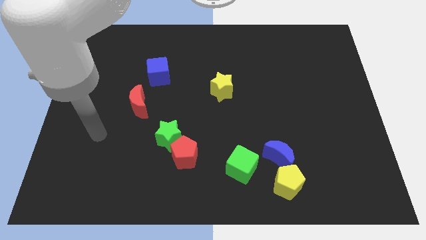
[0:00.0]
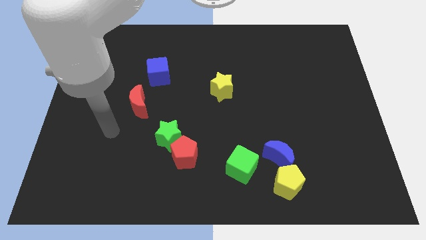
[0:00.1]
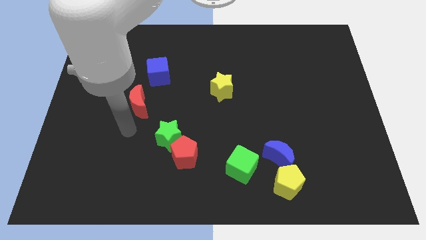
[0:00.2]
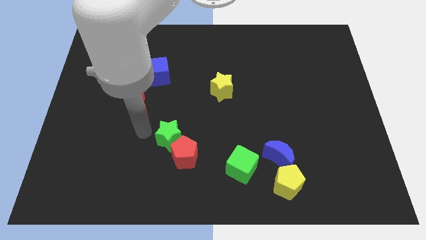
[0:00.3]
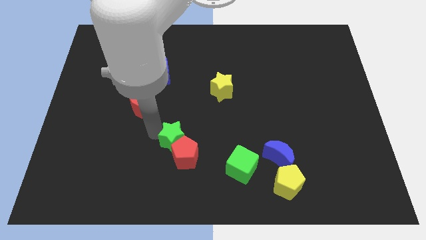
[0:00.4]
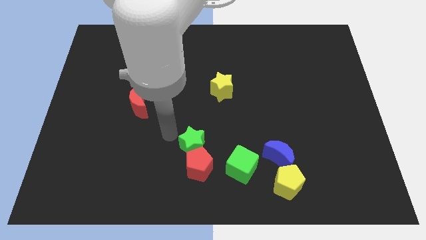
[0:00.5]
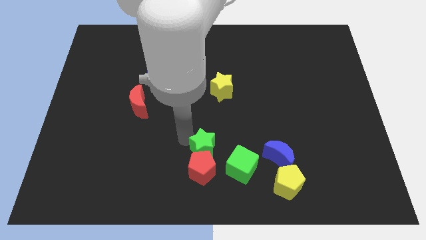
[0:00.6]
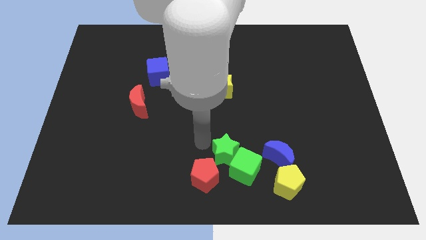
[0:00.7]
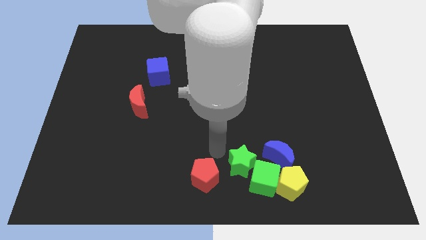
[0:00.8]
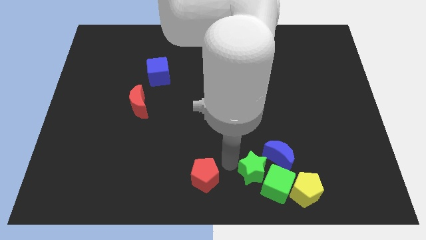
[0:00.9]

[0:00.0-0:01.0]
move the red pentagon away from the green star

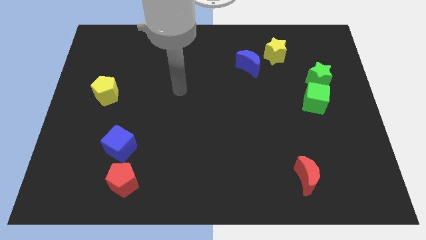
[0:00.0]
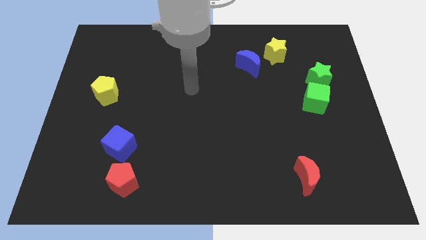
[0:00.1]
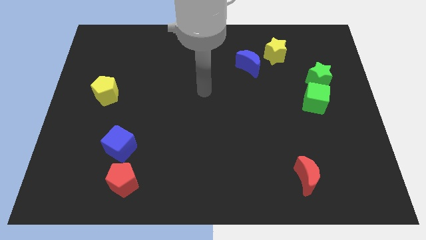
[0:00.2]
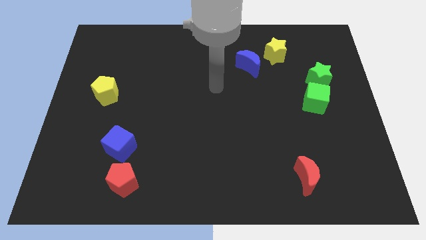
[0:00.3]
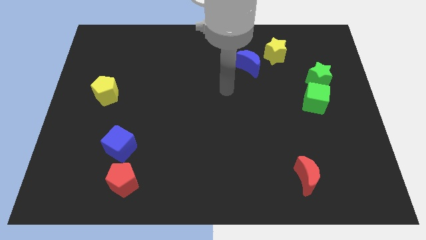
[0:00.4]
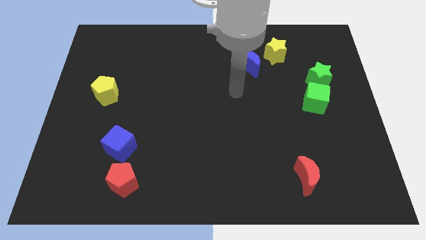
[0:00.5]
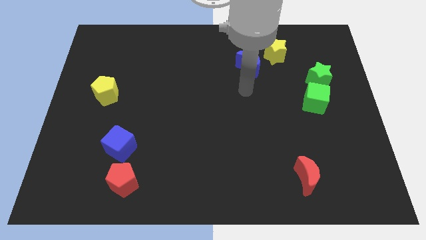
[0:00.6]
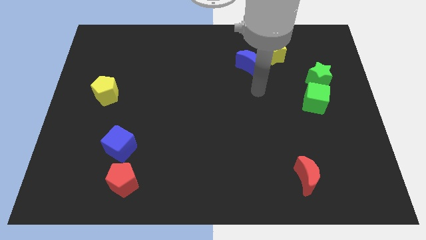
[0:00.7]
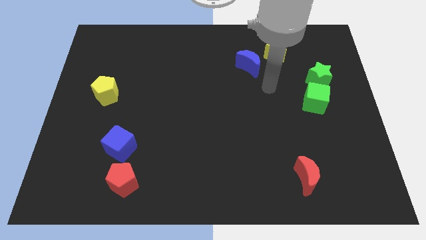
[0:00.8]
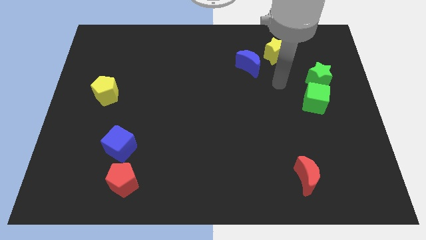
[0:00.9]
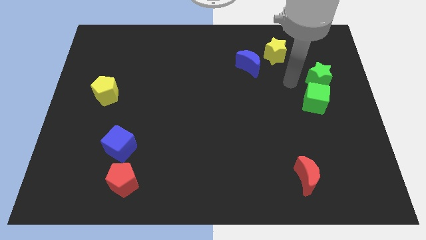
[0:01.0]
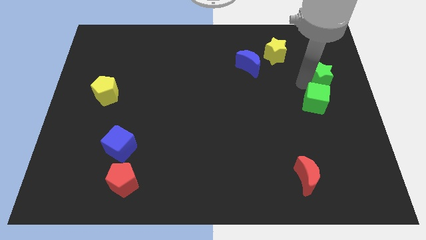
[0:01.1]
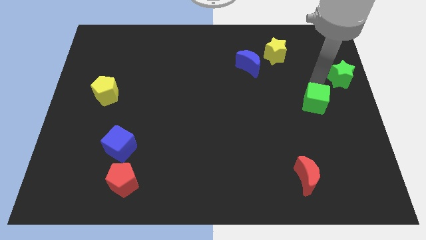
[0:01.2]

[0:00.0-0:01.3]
pull the green cube apart from the green star

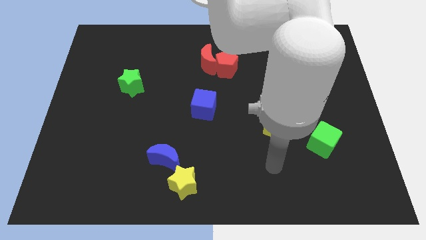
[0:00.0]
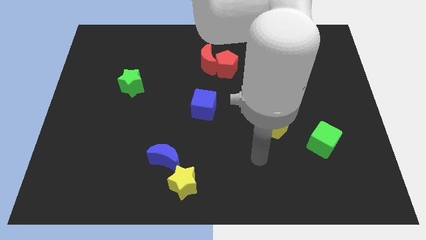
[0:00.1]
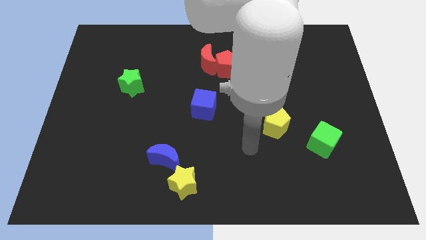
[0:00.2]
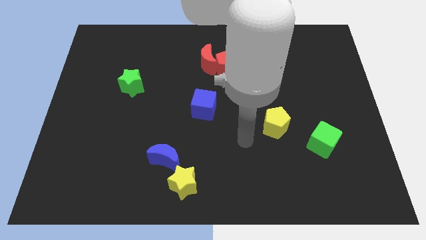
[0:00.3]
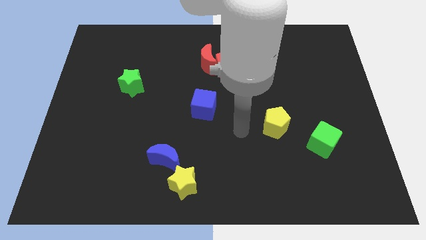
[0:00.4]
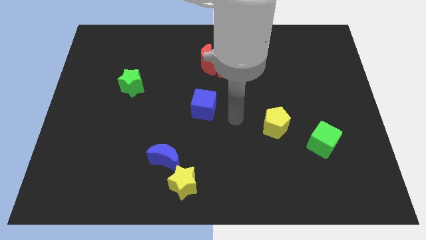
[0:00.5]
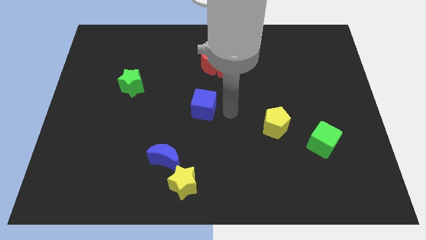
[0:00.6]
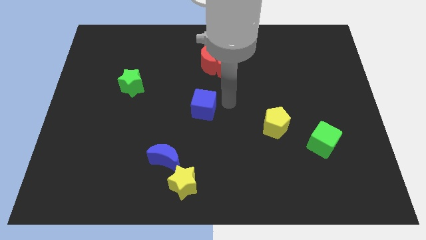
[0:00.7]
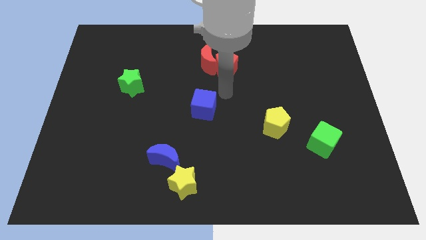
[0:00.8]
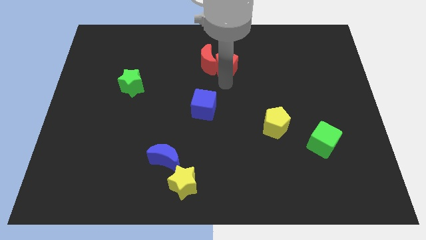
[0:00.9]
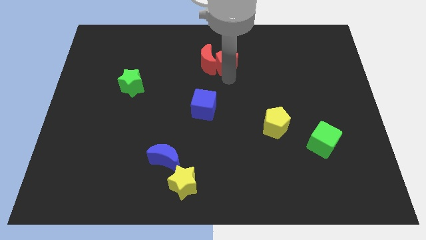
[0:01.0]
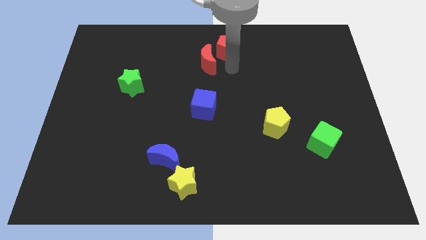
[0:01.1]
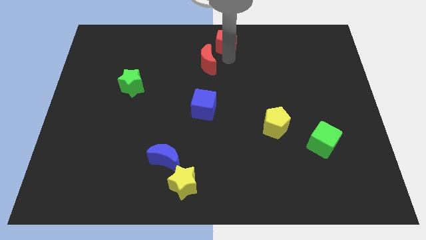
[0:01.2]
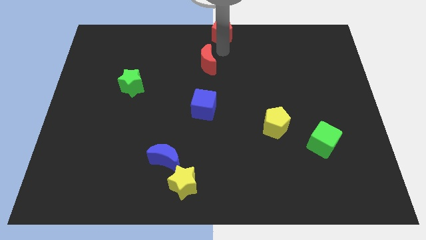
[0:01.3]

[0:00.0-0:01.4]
separate the red moon from the red pentagon

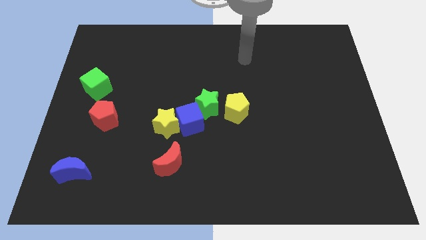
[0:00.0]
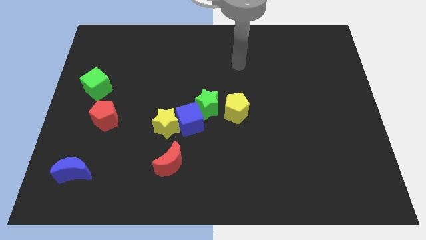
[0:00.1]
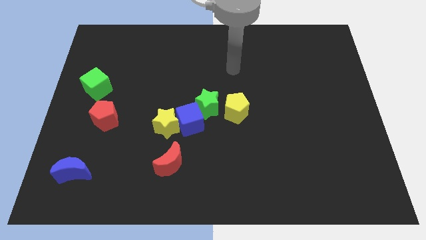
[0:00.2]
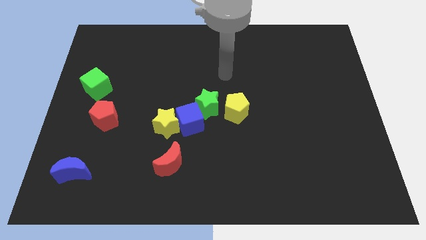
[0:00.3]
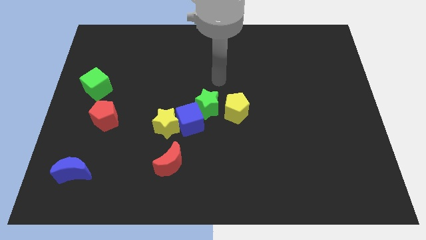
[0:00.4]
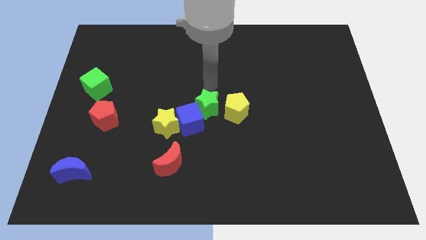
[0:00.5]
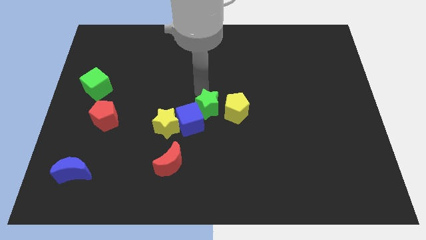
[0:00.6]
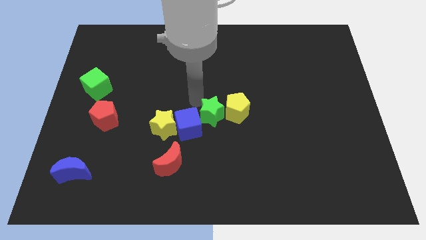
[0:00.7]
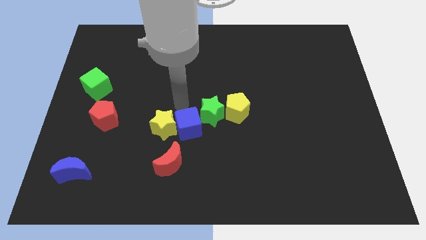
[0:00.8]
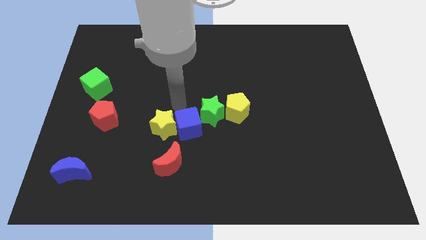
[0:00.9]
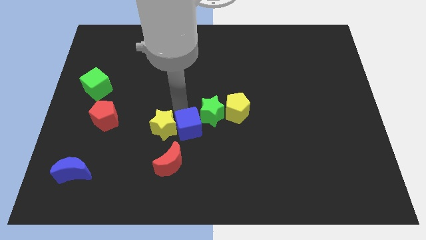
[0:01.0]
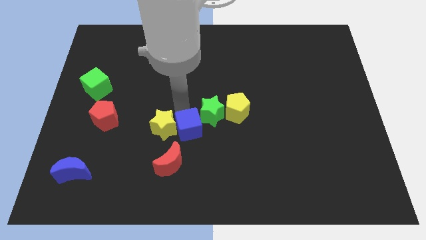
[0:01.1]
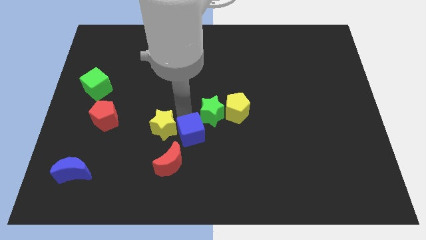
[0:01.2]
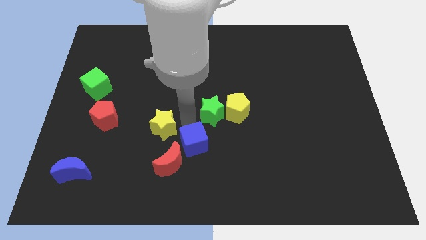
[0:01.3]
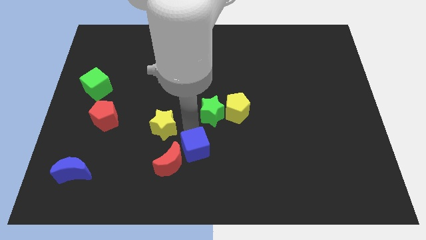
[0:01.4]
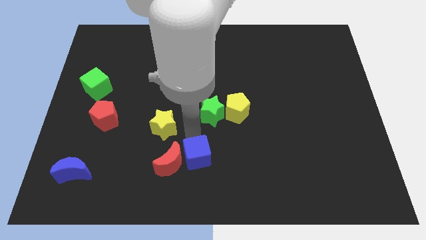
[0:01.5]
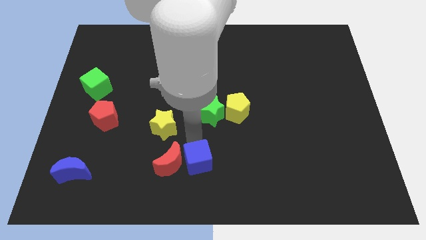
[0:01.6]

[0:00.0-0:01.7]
pull the blue cube apart from the yellow star and green star

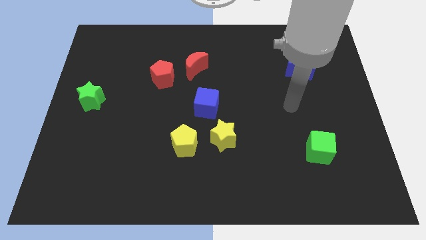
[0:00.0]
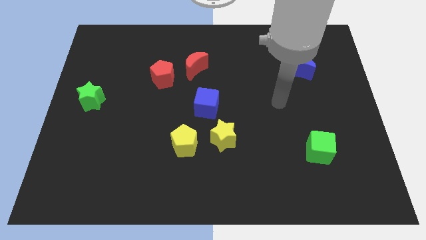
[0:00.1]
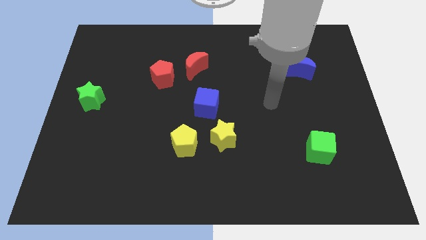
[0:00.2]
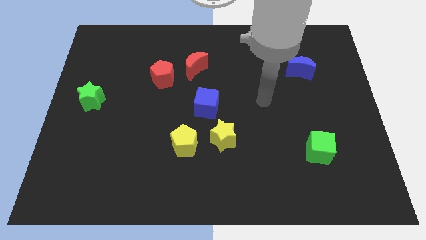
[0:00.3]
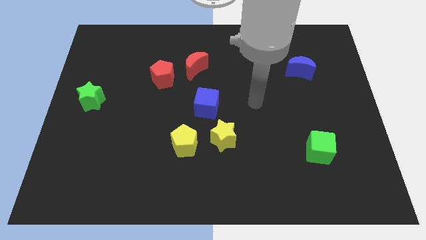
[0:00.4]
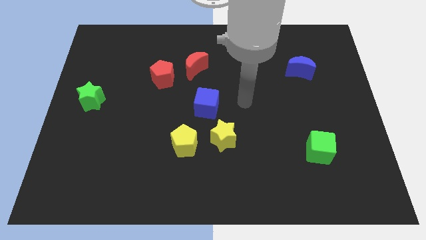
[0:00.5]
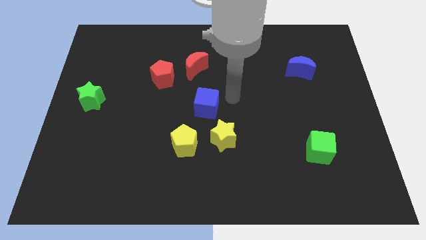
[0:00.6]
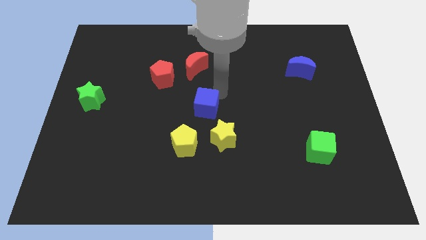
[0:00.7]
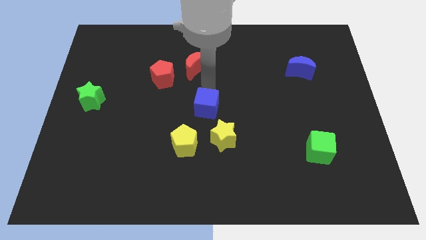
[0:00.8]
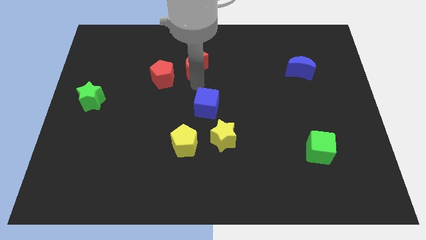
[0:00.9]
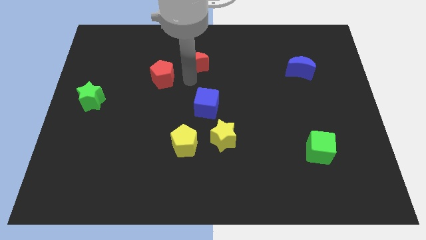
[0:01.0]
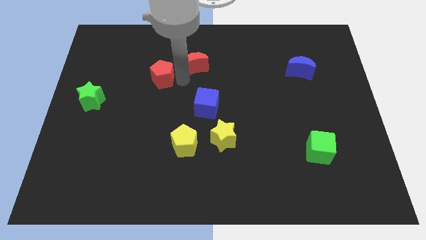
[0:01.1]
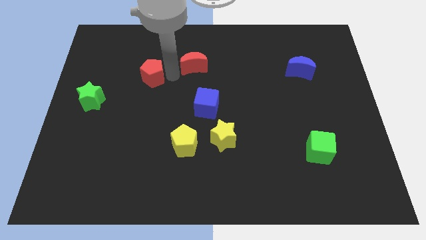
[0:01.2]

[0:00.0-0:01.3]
pull the red moon apart from the red pentagon

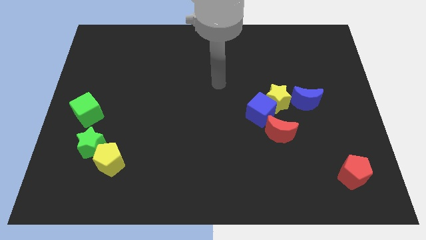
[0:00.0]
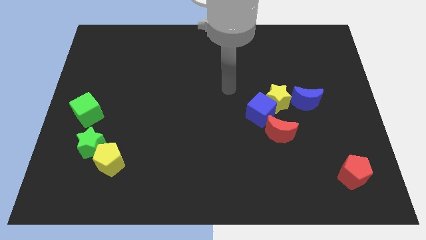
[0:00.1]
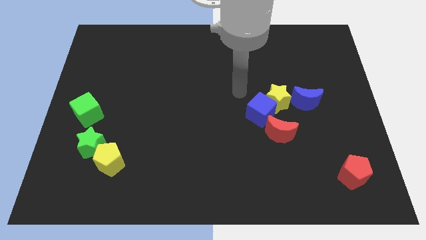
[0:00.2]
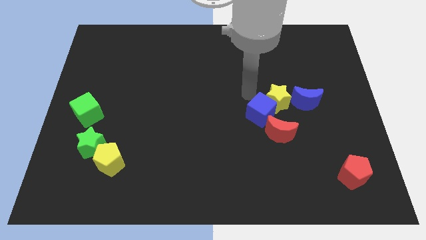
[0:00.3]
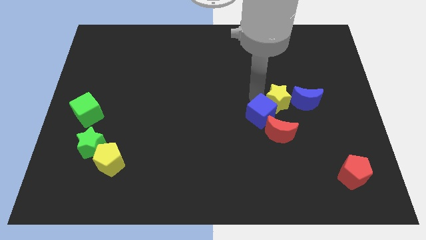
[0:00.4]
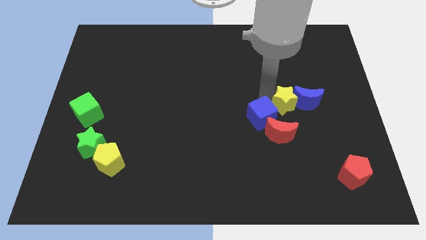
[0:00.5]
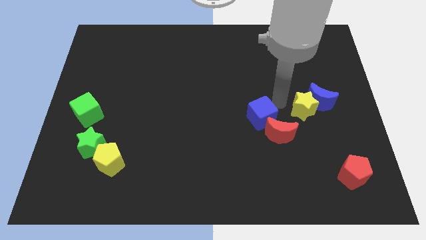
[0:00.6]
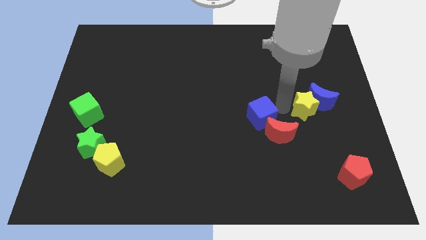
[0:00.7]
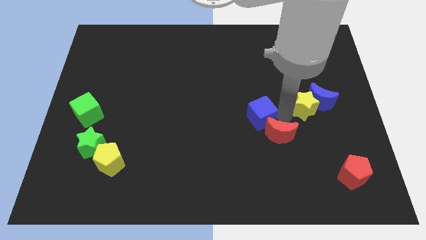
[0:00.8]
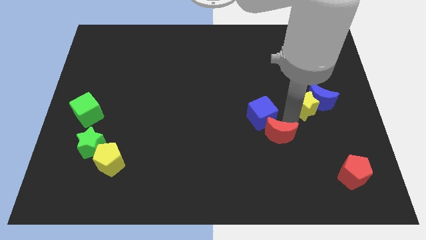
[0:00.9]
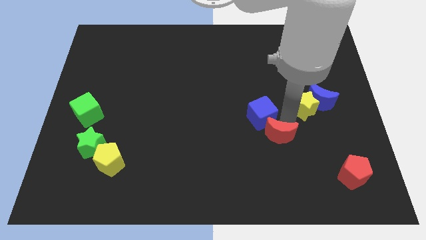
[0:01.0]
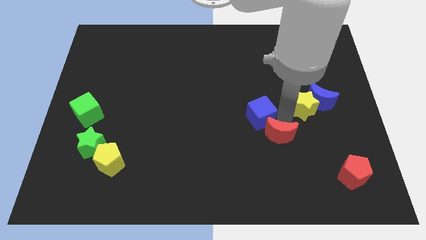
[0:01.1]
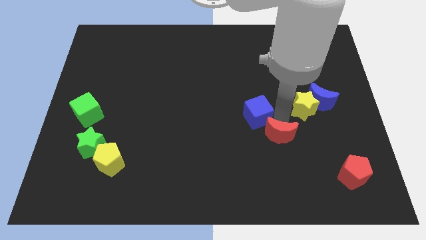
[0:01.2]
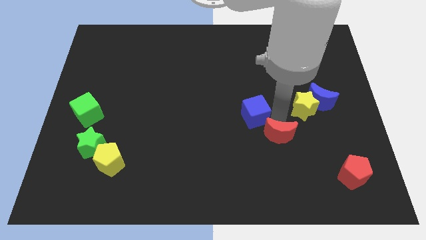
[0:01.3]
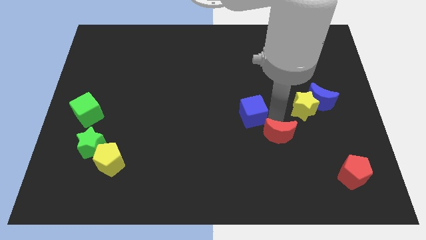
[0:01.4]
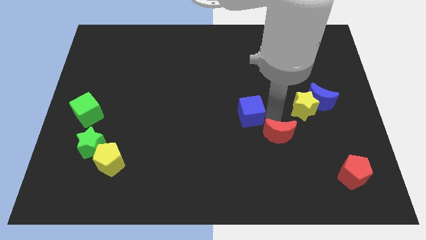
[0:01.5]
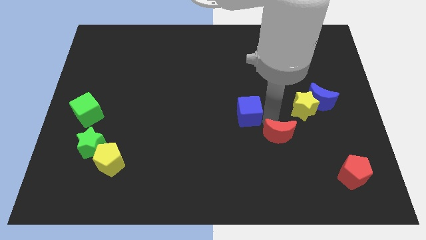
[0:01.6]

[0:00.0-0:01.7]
separate the blue cube from the yellow star and red moon

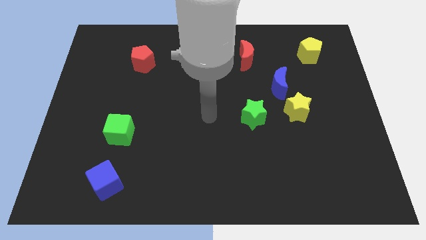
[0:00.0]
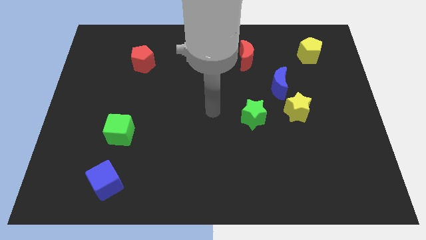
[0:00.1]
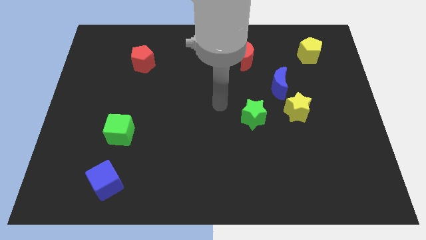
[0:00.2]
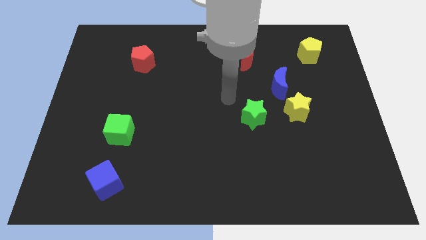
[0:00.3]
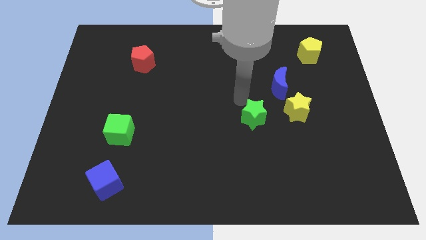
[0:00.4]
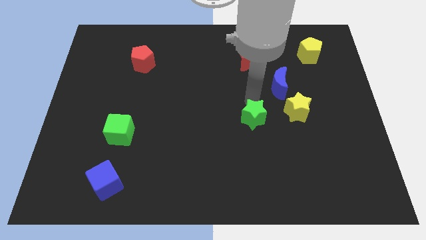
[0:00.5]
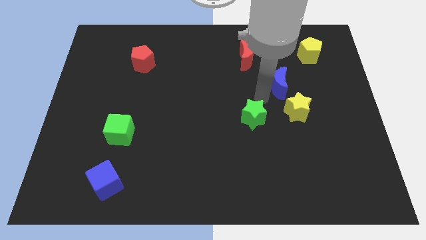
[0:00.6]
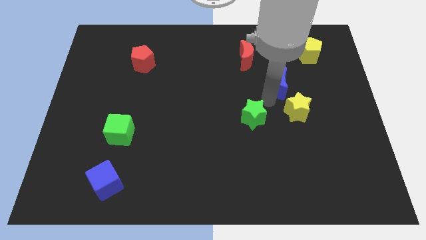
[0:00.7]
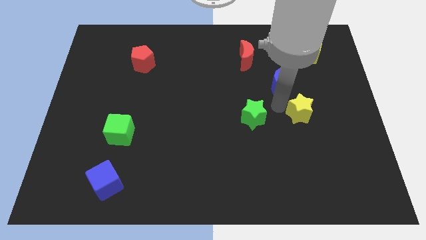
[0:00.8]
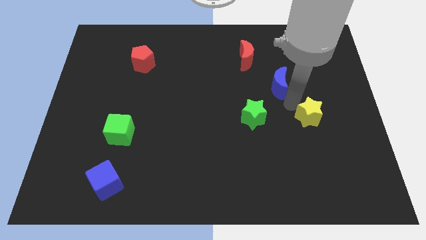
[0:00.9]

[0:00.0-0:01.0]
pull the blue moon apart from the yellow star
